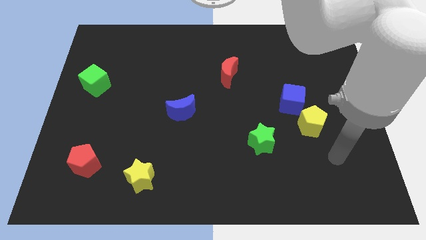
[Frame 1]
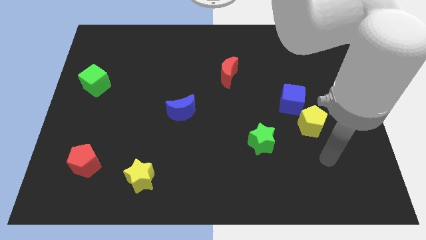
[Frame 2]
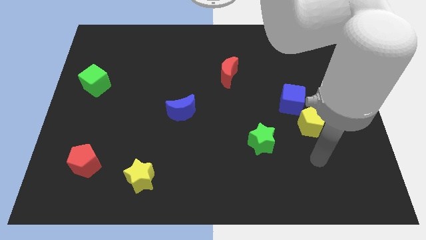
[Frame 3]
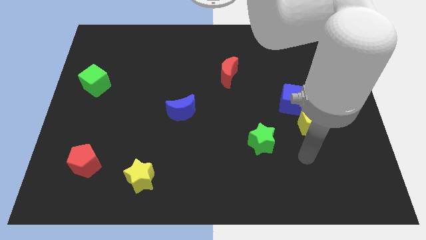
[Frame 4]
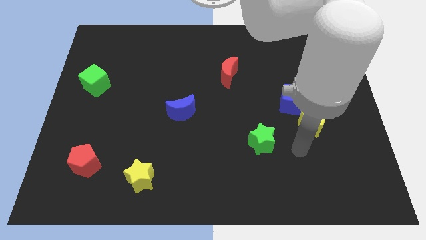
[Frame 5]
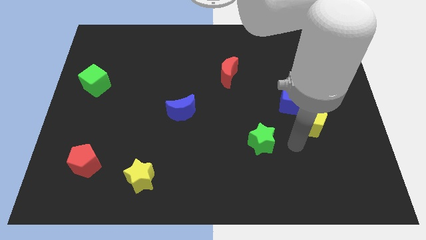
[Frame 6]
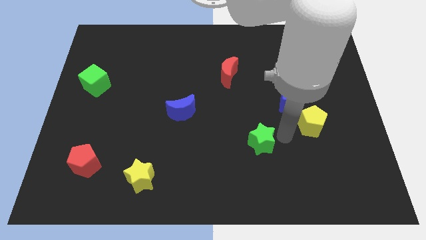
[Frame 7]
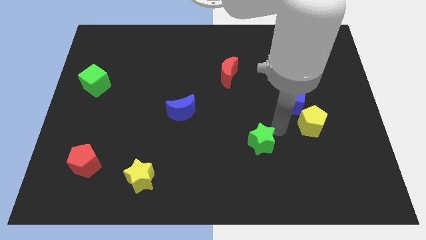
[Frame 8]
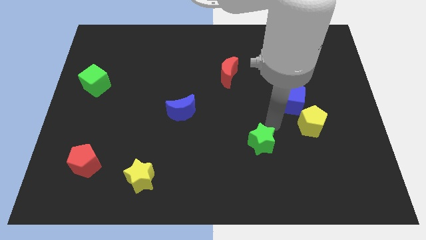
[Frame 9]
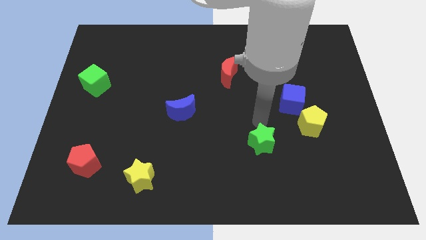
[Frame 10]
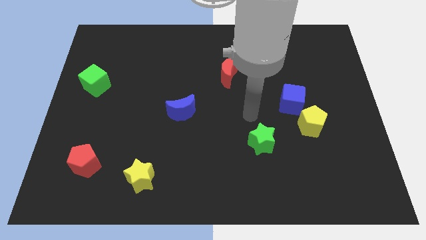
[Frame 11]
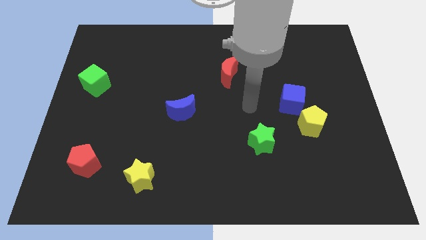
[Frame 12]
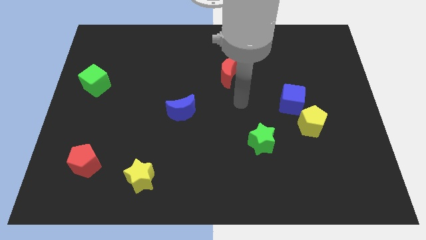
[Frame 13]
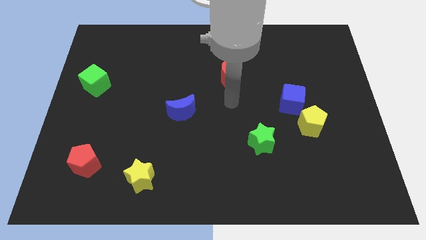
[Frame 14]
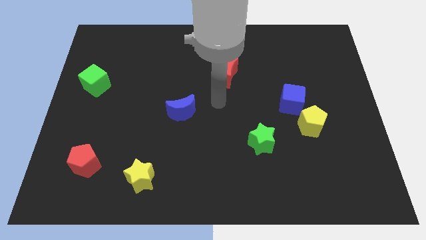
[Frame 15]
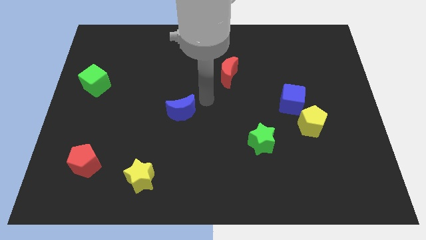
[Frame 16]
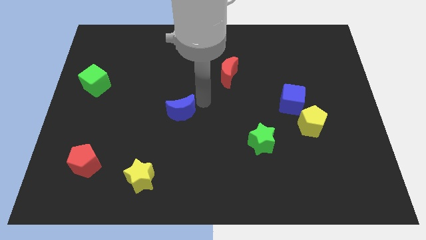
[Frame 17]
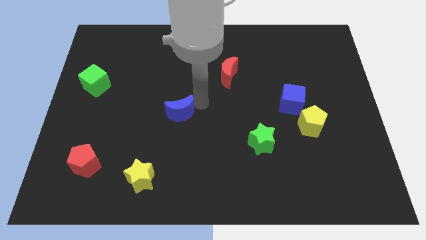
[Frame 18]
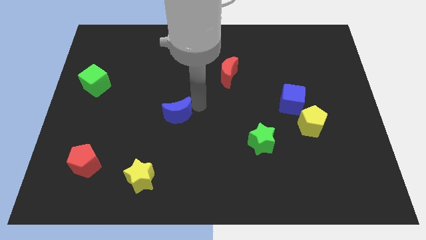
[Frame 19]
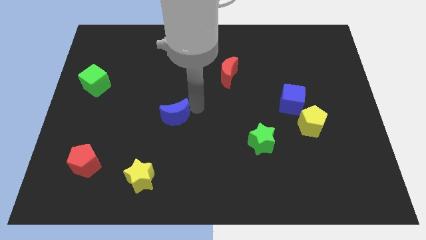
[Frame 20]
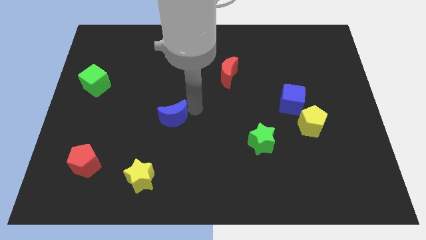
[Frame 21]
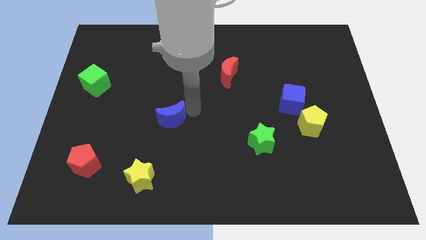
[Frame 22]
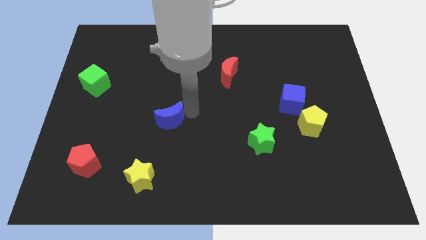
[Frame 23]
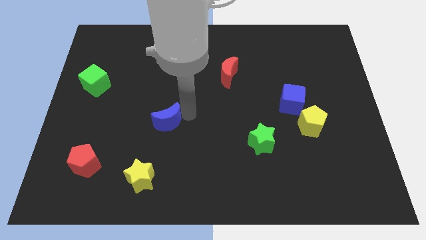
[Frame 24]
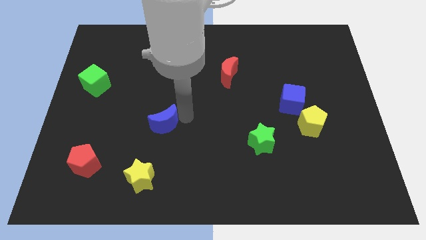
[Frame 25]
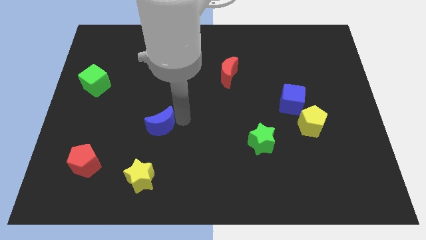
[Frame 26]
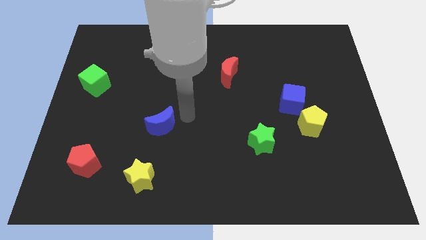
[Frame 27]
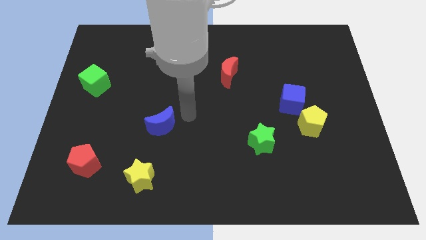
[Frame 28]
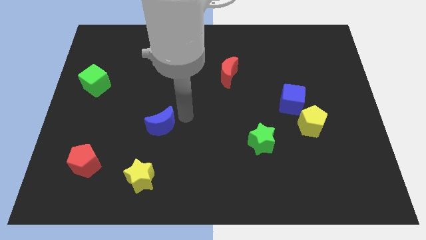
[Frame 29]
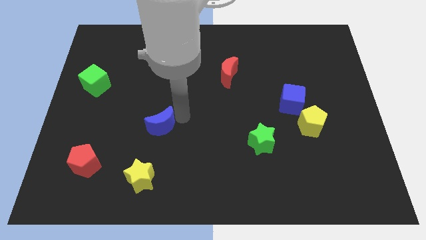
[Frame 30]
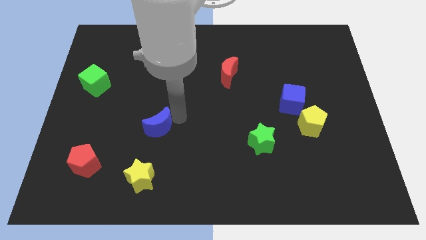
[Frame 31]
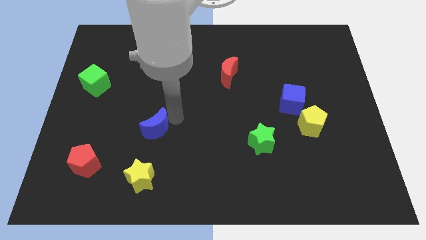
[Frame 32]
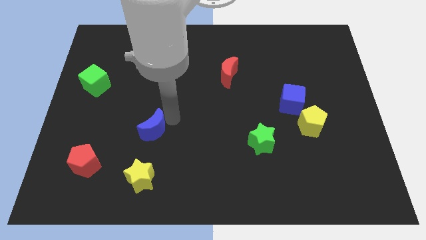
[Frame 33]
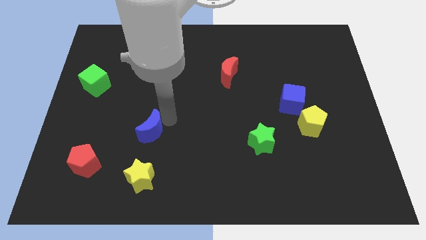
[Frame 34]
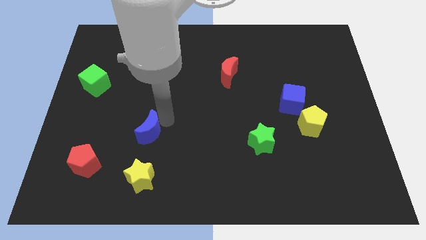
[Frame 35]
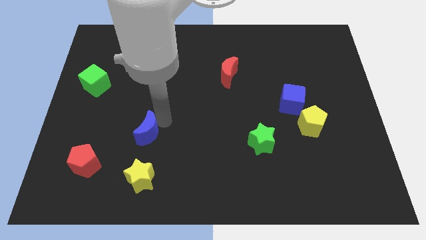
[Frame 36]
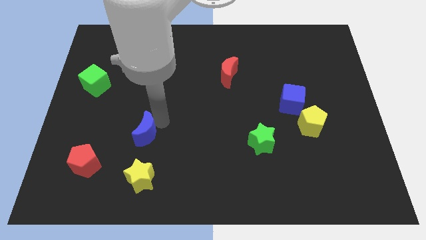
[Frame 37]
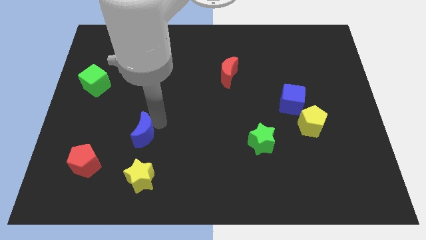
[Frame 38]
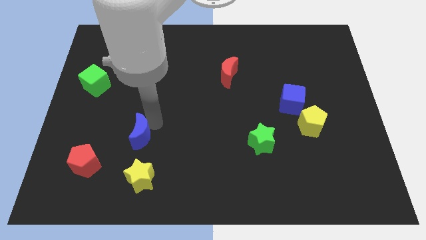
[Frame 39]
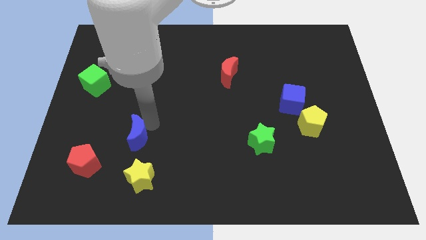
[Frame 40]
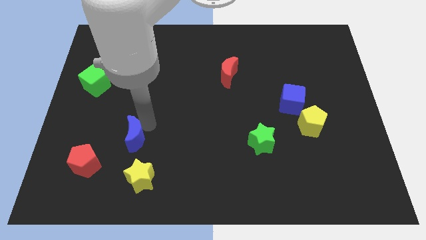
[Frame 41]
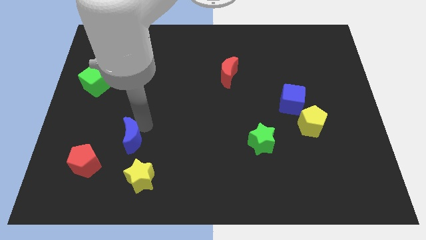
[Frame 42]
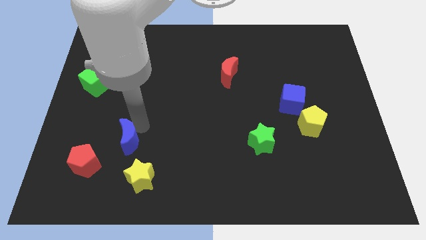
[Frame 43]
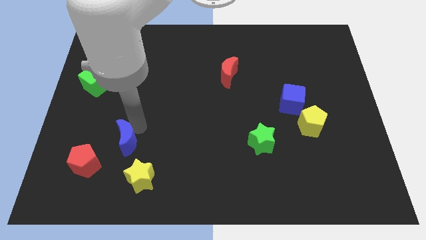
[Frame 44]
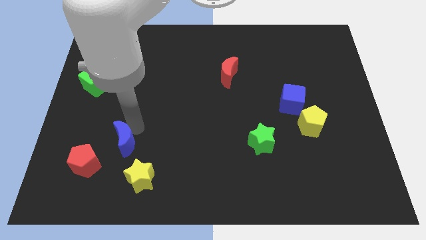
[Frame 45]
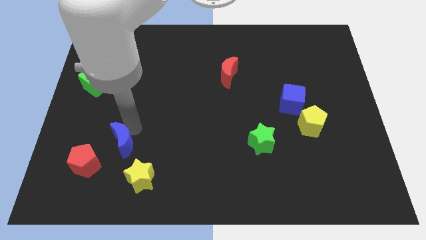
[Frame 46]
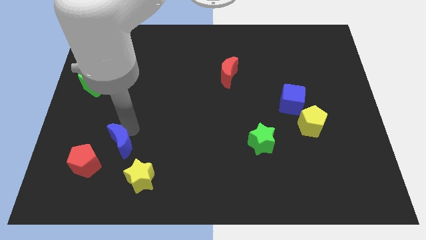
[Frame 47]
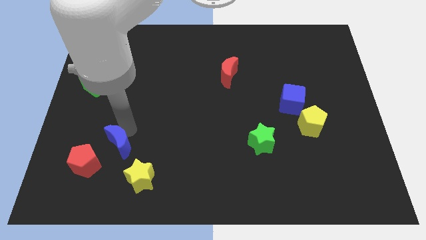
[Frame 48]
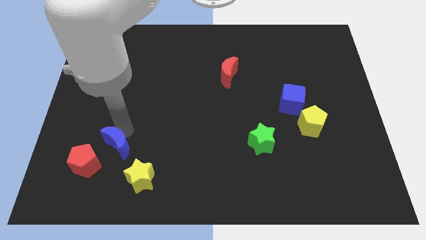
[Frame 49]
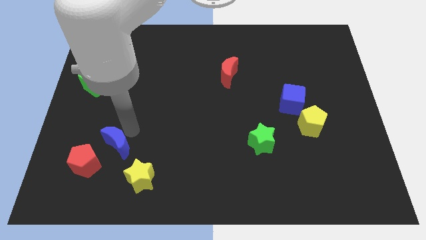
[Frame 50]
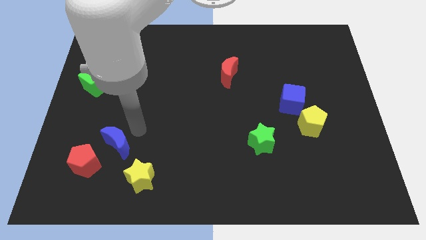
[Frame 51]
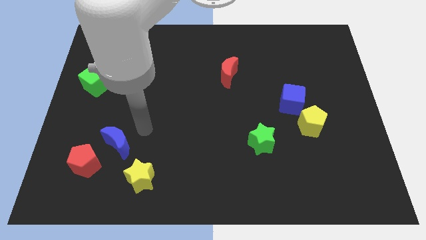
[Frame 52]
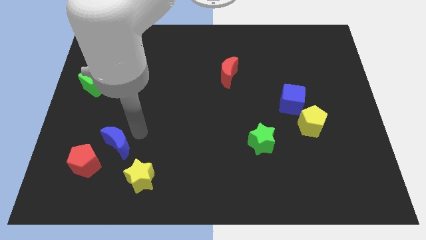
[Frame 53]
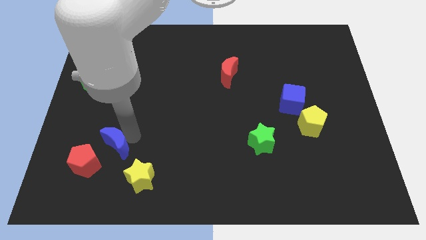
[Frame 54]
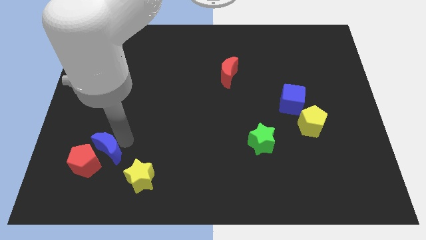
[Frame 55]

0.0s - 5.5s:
push the blue moon close to the red pentagon

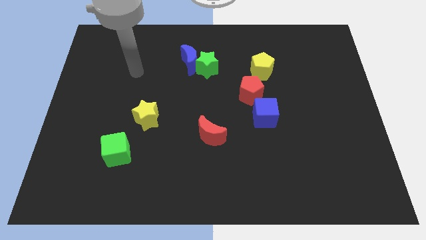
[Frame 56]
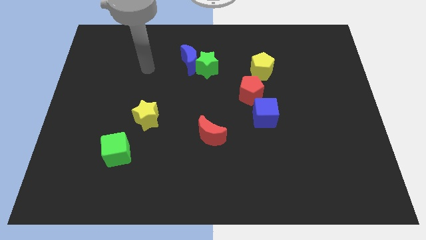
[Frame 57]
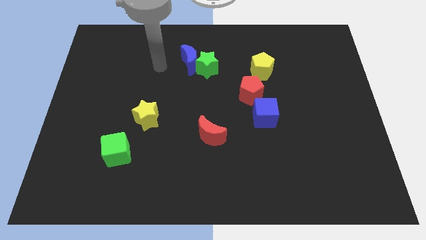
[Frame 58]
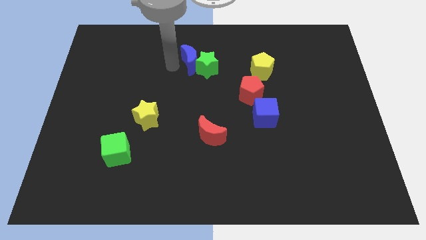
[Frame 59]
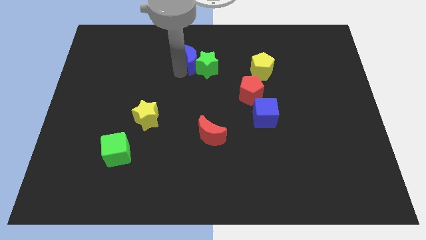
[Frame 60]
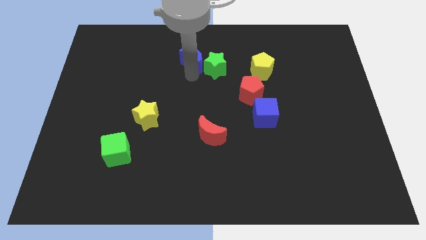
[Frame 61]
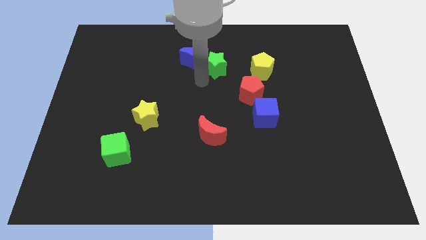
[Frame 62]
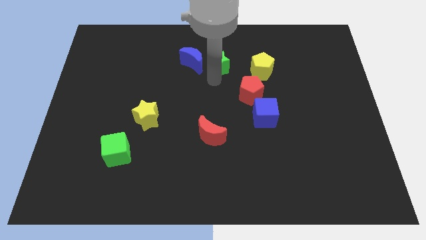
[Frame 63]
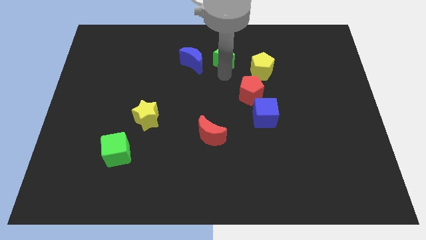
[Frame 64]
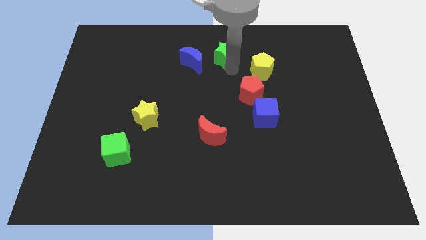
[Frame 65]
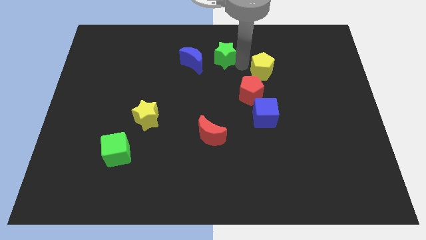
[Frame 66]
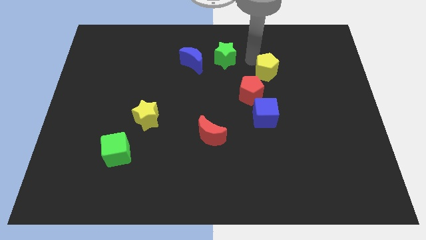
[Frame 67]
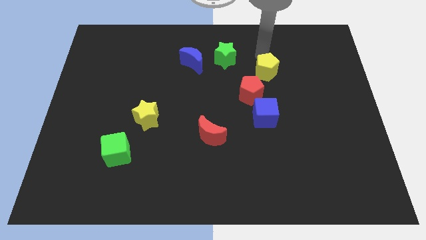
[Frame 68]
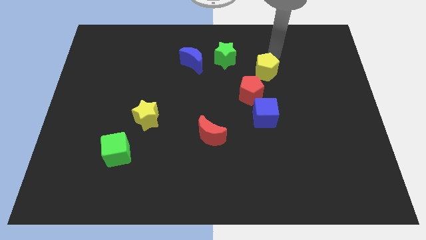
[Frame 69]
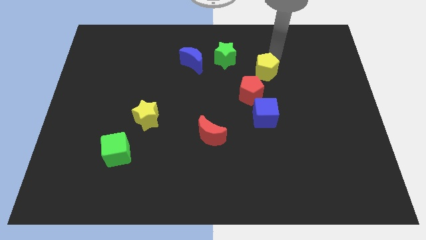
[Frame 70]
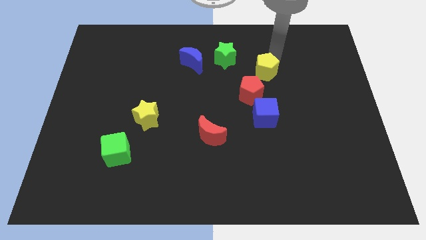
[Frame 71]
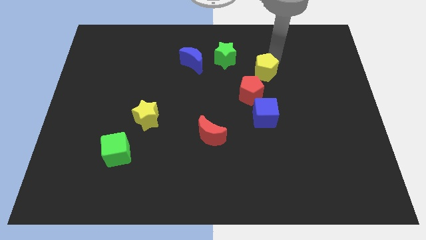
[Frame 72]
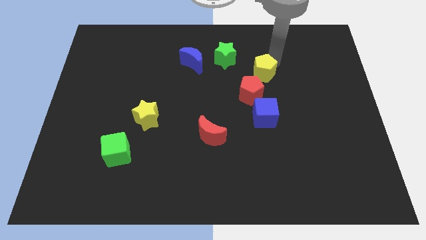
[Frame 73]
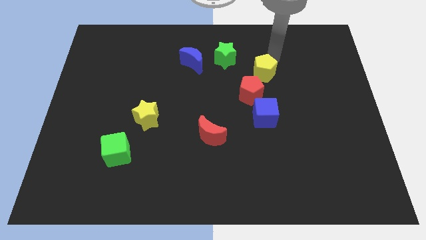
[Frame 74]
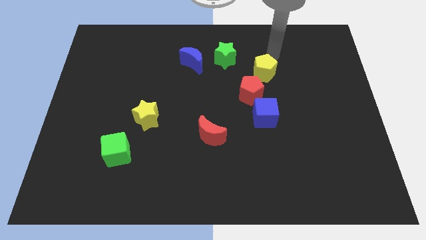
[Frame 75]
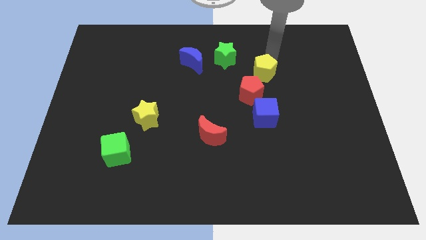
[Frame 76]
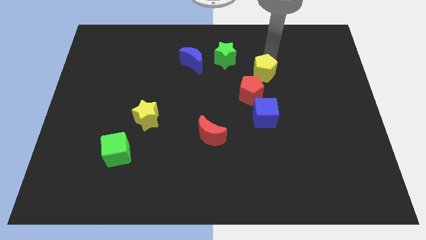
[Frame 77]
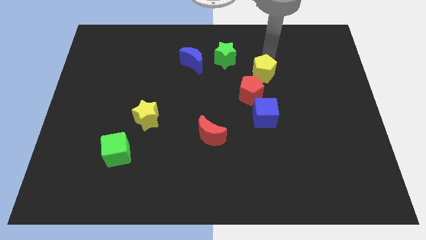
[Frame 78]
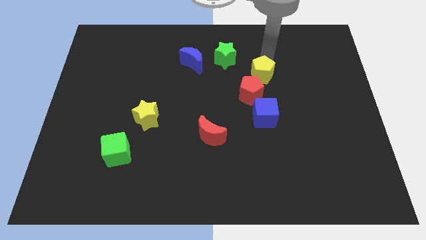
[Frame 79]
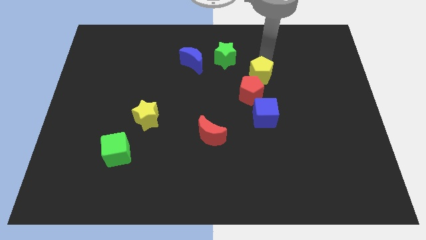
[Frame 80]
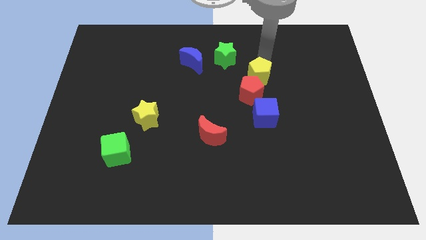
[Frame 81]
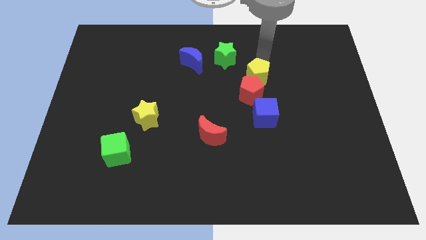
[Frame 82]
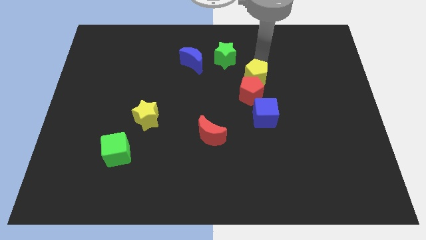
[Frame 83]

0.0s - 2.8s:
move the yellow pentagon next to the red pentagon
